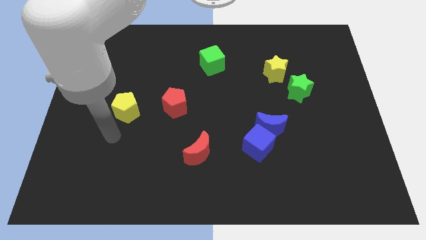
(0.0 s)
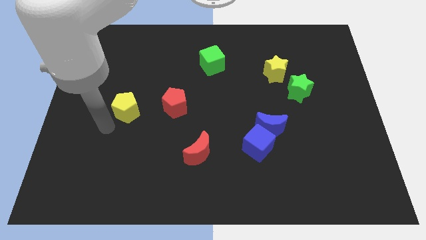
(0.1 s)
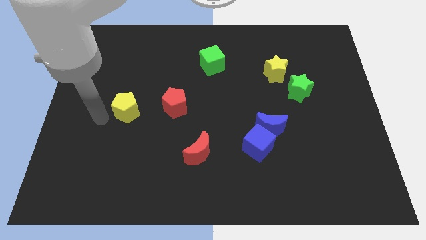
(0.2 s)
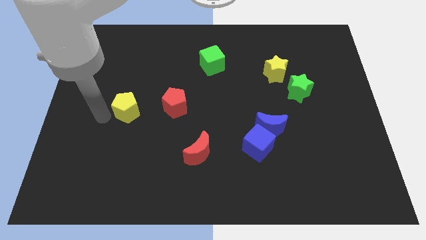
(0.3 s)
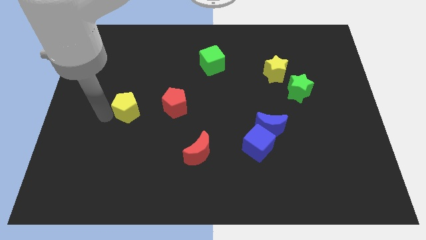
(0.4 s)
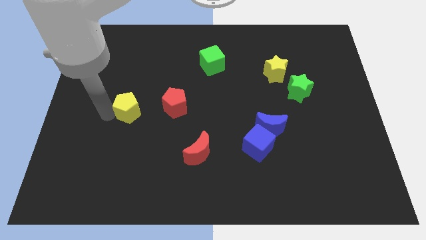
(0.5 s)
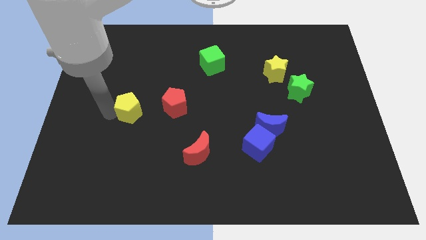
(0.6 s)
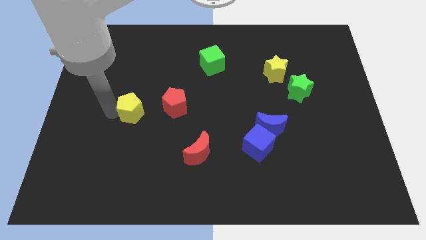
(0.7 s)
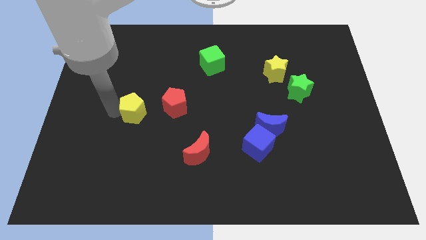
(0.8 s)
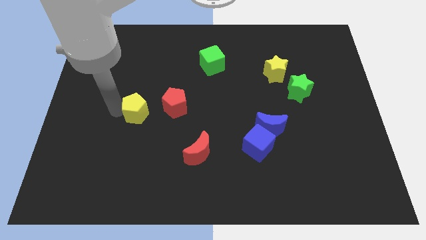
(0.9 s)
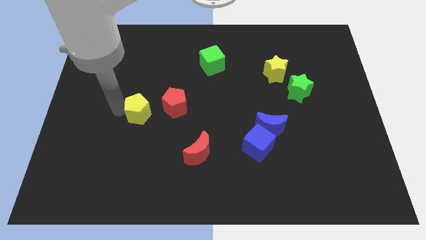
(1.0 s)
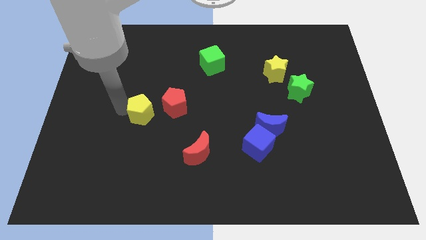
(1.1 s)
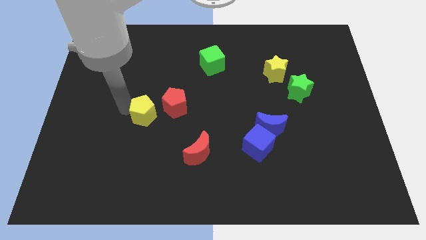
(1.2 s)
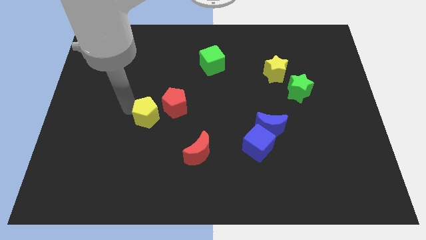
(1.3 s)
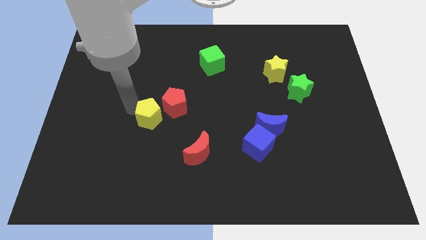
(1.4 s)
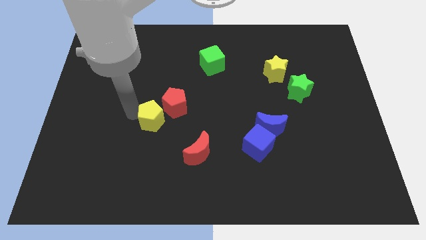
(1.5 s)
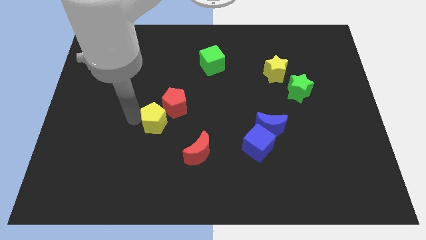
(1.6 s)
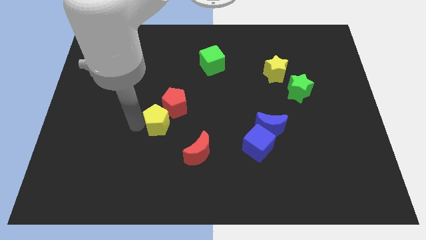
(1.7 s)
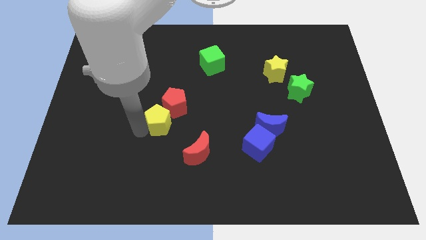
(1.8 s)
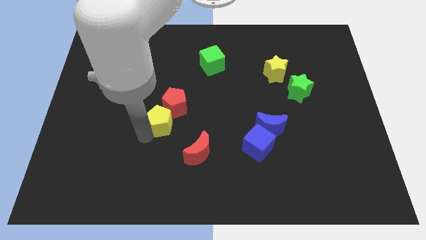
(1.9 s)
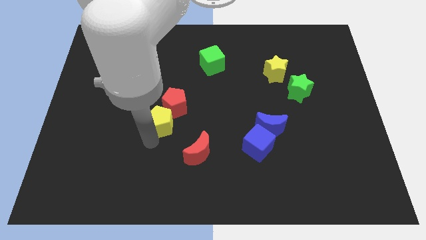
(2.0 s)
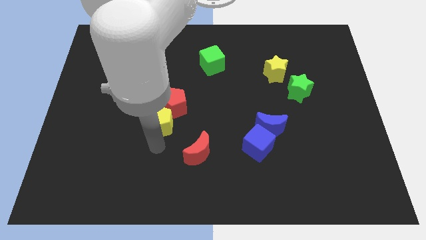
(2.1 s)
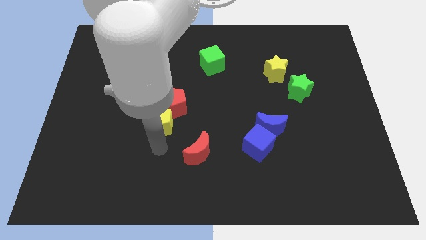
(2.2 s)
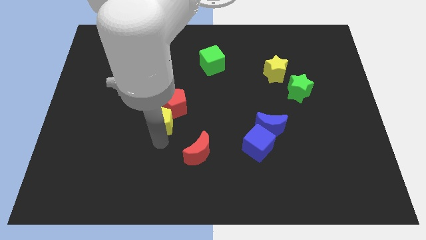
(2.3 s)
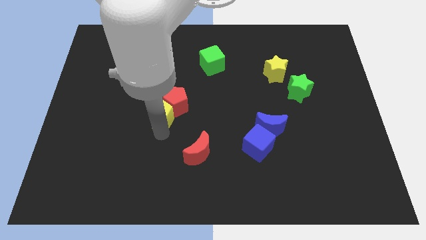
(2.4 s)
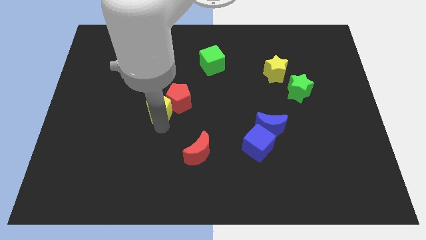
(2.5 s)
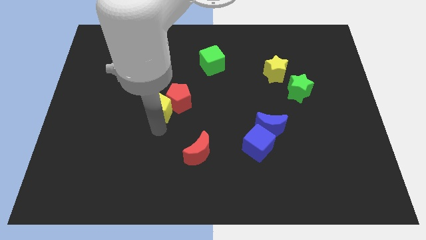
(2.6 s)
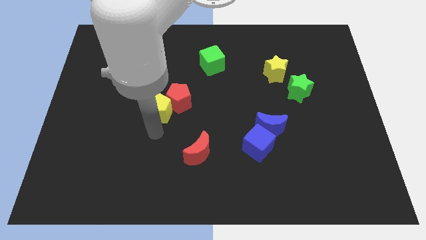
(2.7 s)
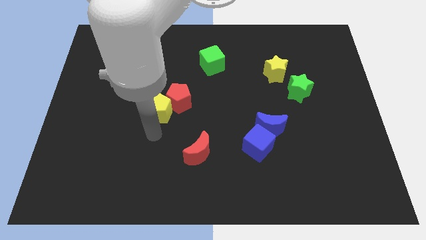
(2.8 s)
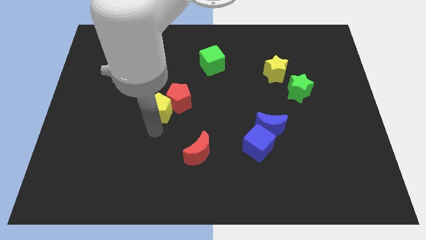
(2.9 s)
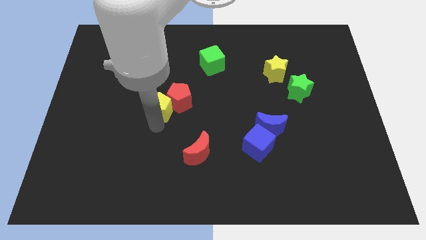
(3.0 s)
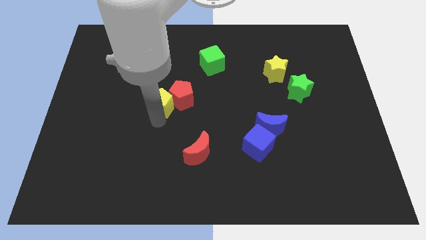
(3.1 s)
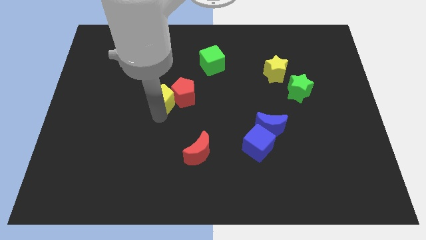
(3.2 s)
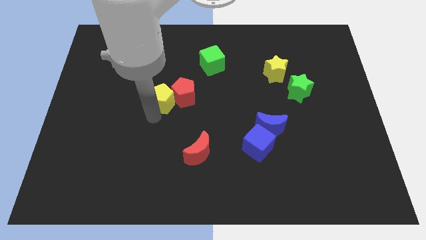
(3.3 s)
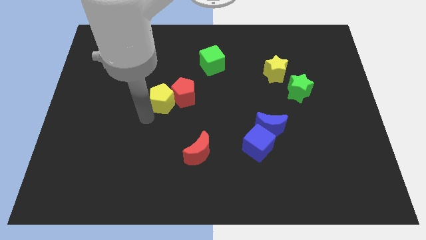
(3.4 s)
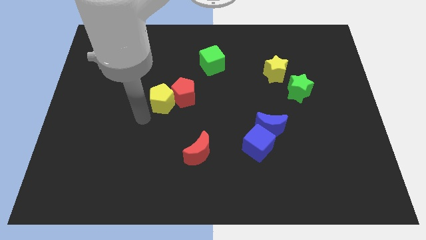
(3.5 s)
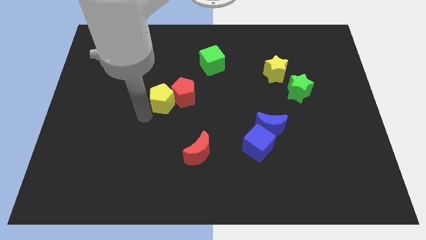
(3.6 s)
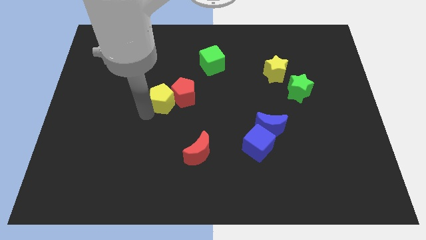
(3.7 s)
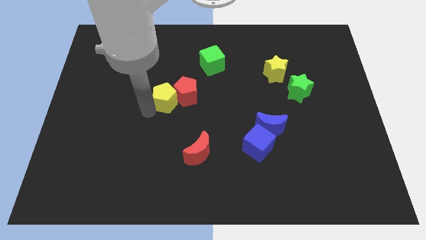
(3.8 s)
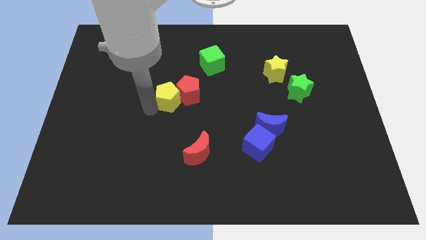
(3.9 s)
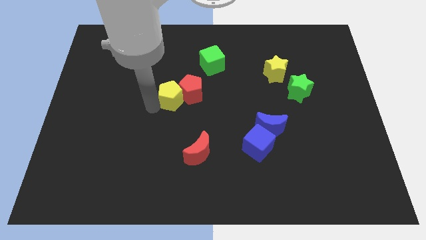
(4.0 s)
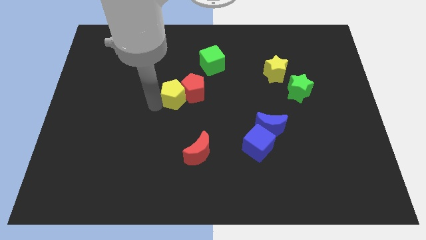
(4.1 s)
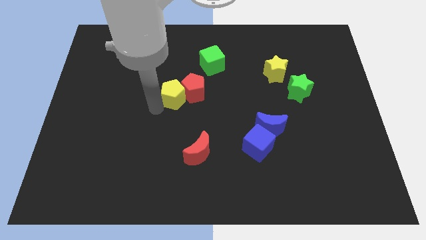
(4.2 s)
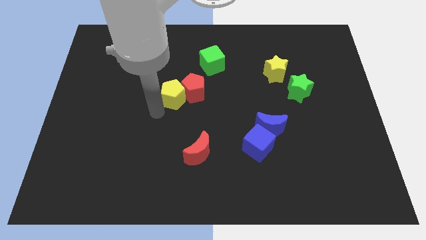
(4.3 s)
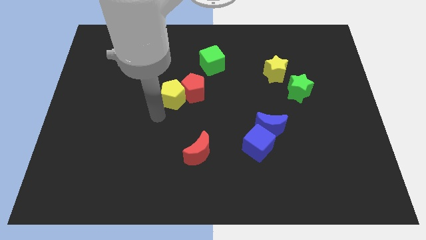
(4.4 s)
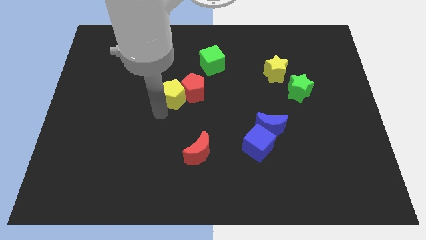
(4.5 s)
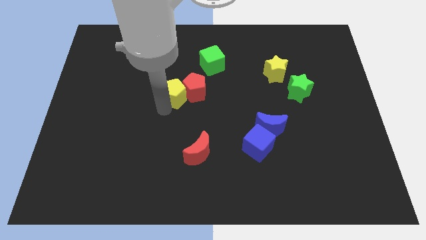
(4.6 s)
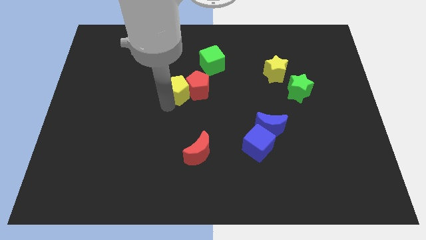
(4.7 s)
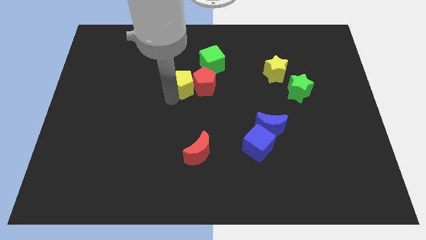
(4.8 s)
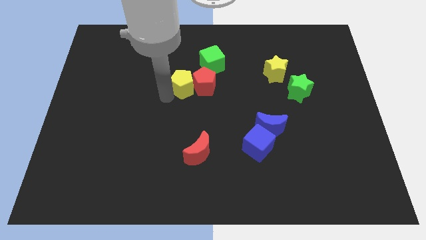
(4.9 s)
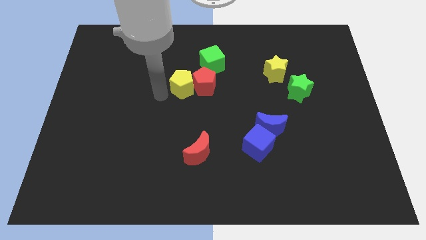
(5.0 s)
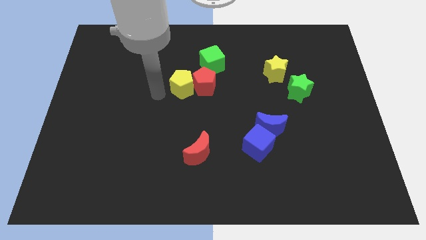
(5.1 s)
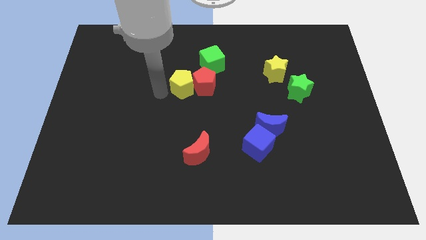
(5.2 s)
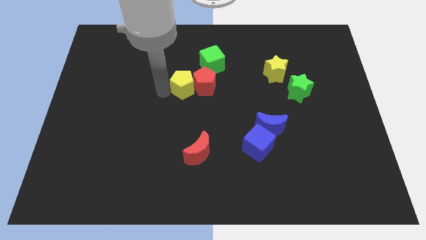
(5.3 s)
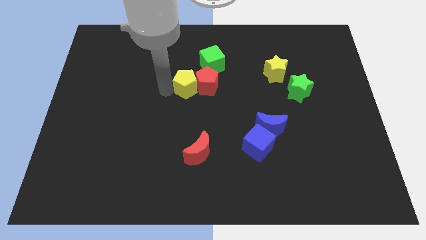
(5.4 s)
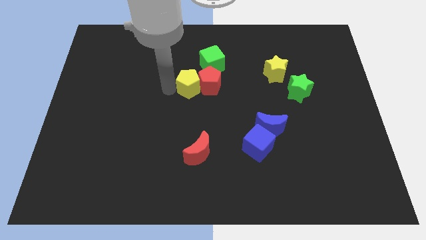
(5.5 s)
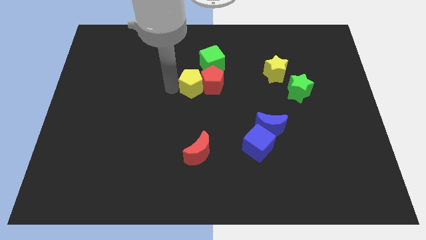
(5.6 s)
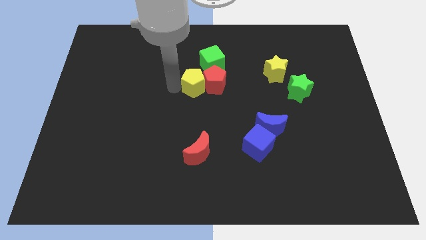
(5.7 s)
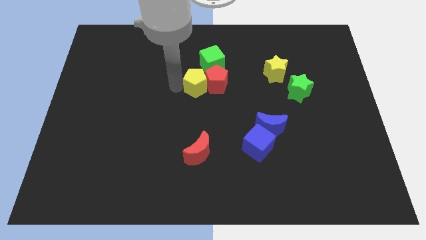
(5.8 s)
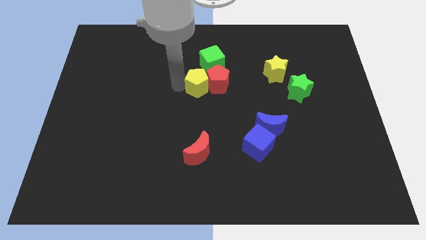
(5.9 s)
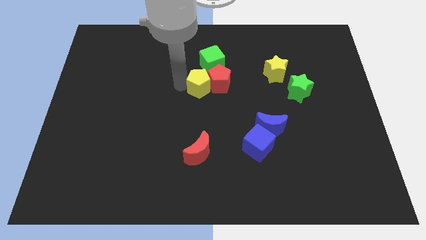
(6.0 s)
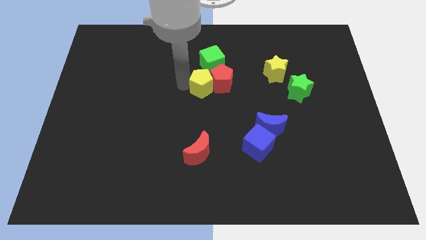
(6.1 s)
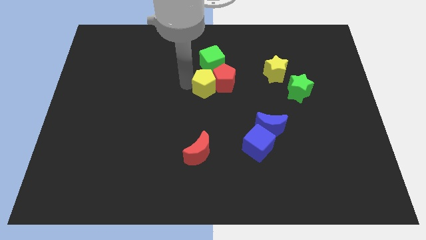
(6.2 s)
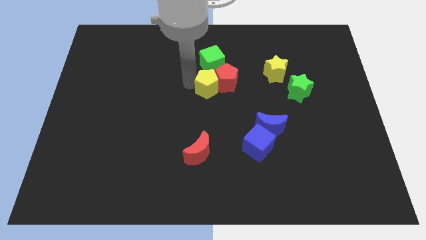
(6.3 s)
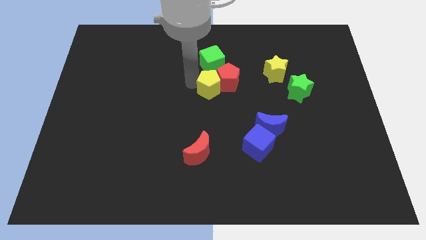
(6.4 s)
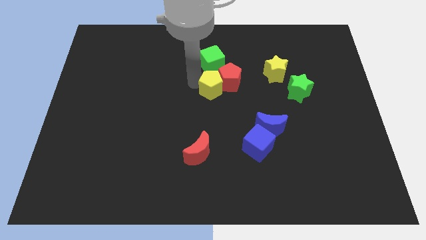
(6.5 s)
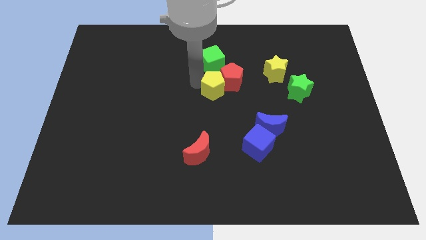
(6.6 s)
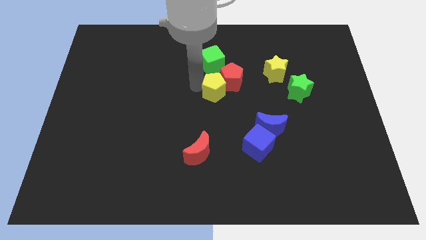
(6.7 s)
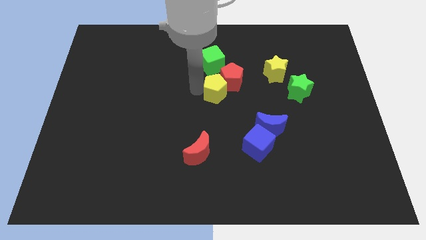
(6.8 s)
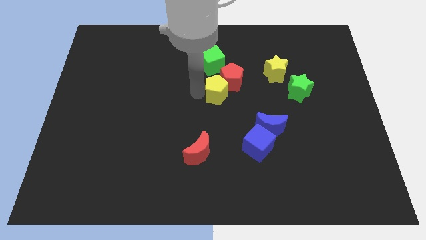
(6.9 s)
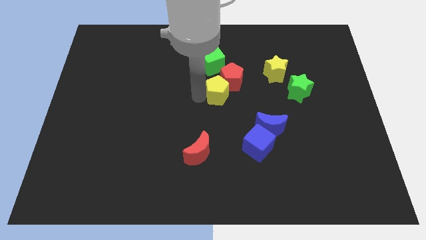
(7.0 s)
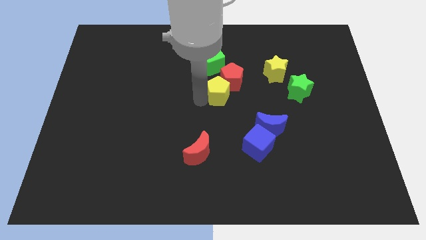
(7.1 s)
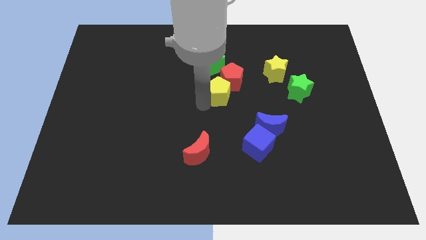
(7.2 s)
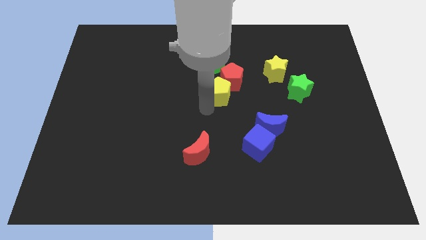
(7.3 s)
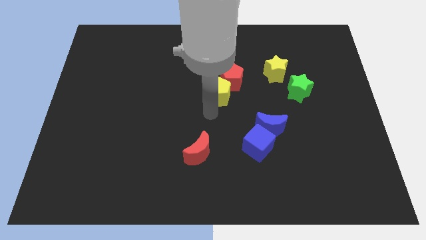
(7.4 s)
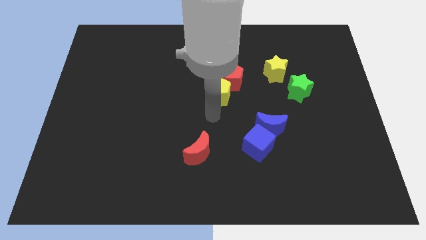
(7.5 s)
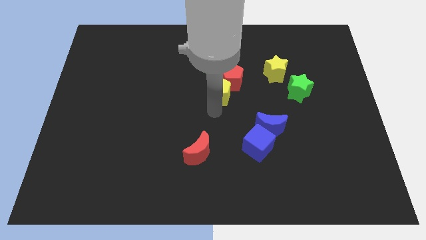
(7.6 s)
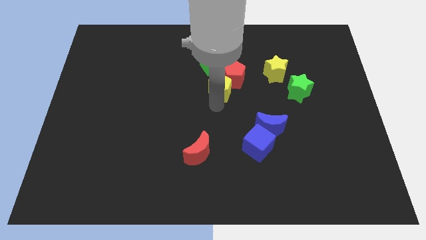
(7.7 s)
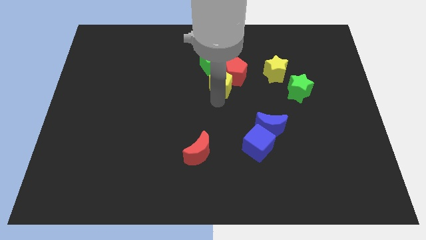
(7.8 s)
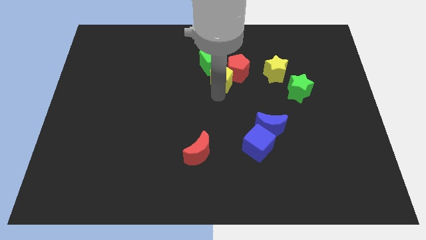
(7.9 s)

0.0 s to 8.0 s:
move the yellow pentagon to the left of the yellow star
